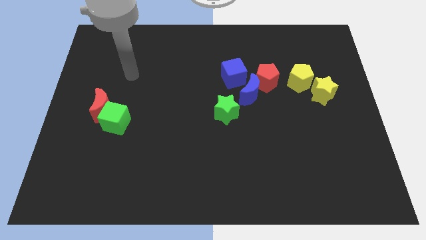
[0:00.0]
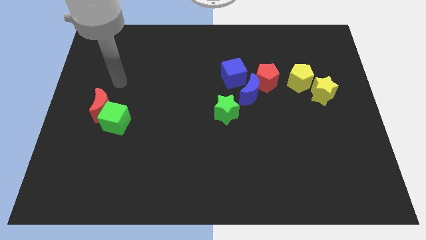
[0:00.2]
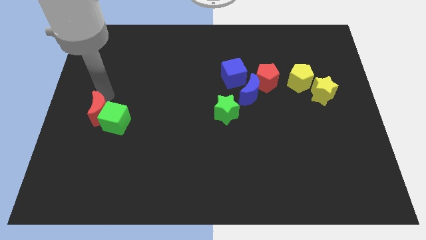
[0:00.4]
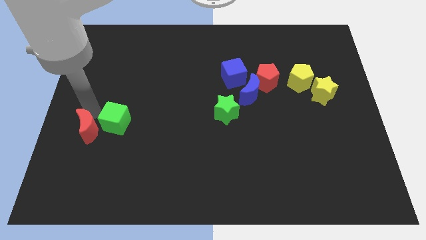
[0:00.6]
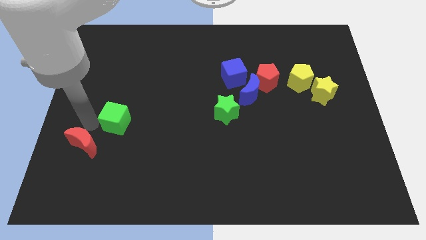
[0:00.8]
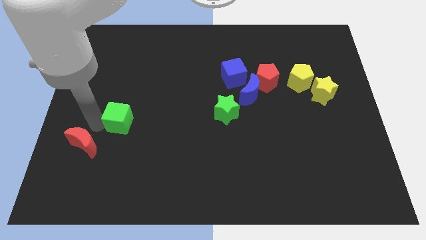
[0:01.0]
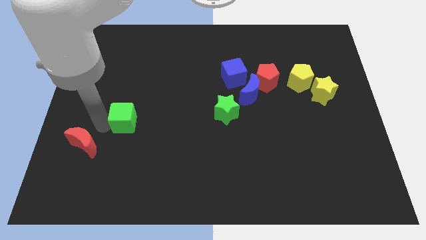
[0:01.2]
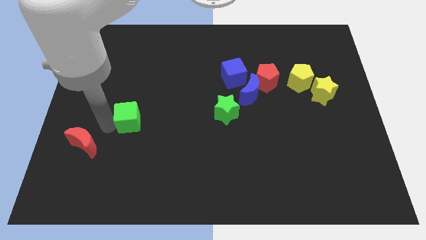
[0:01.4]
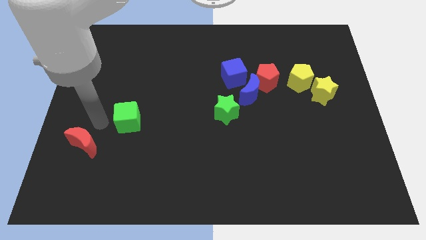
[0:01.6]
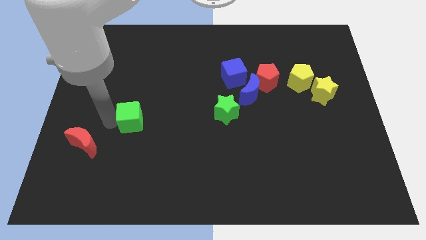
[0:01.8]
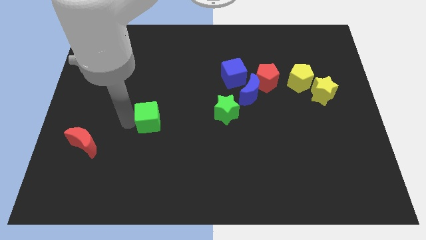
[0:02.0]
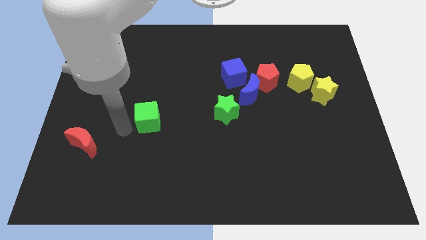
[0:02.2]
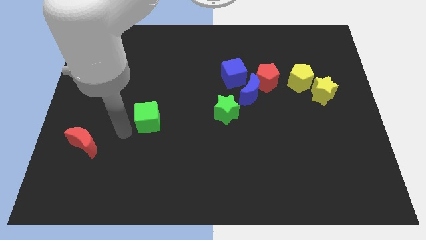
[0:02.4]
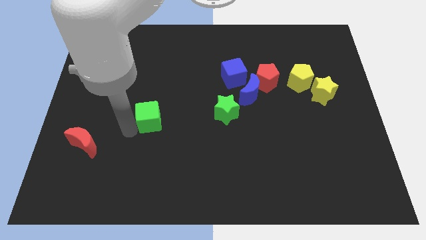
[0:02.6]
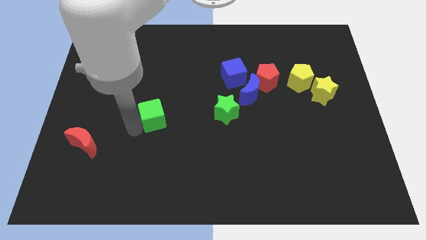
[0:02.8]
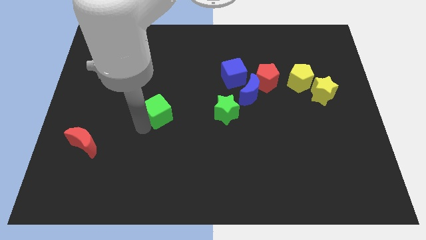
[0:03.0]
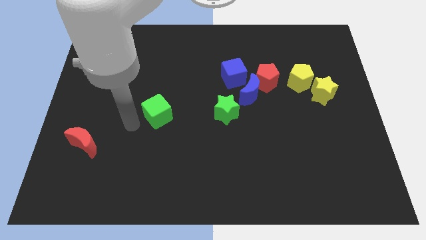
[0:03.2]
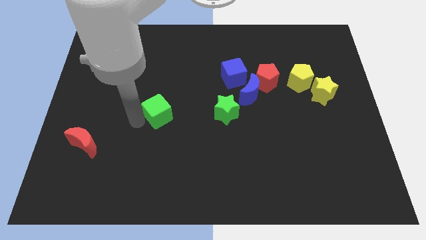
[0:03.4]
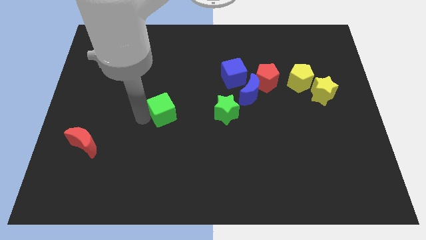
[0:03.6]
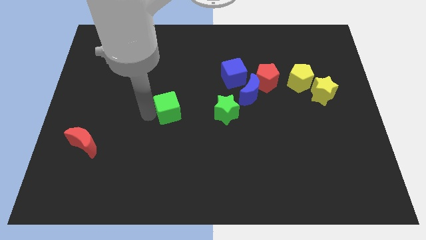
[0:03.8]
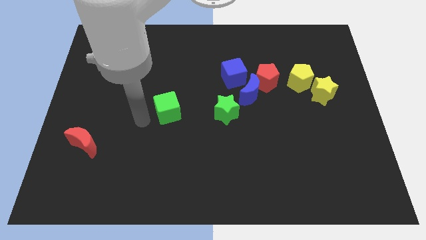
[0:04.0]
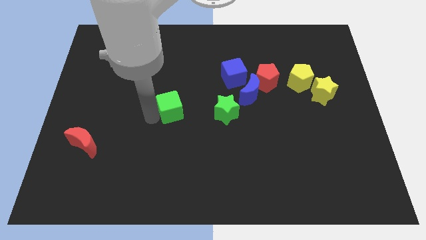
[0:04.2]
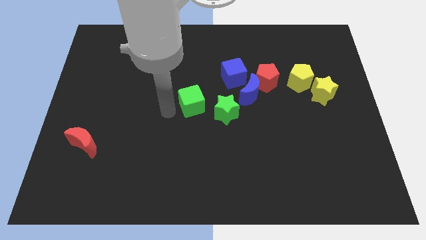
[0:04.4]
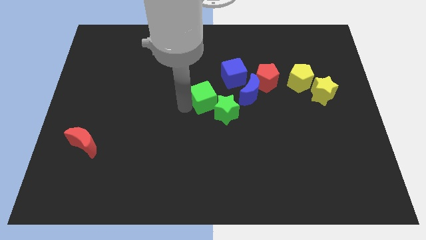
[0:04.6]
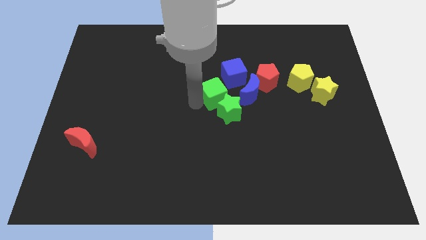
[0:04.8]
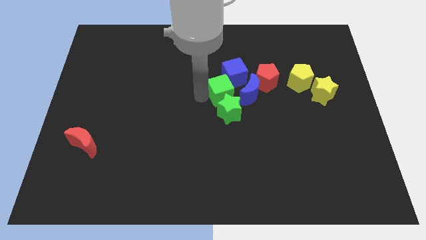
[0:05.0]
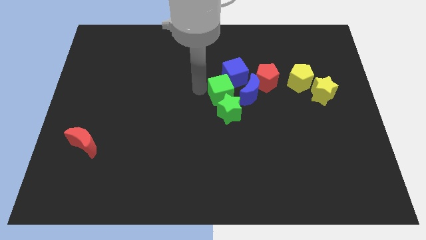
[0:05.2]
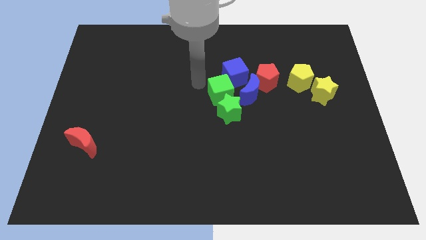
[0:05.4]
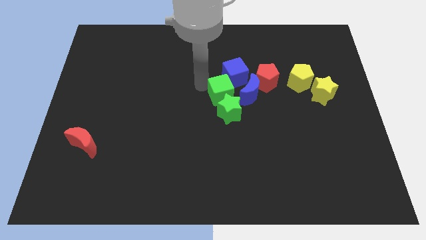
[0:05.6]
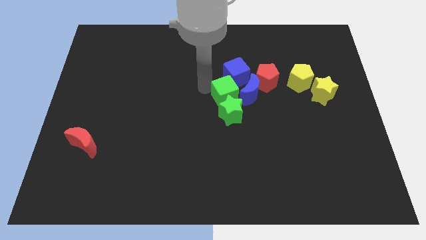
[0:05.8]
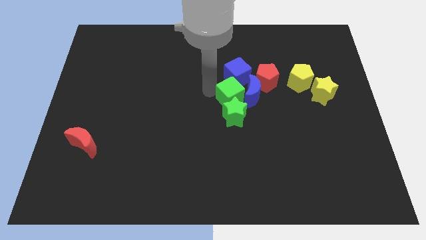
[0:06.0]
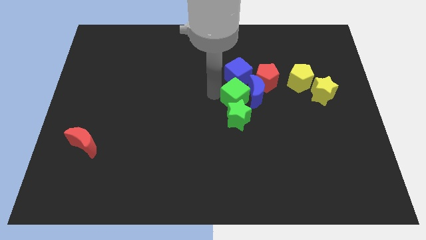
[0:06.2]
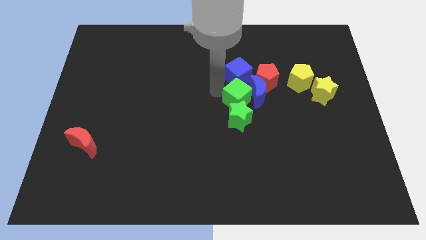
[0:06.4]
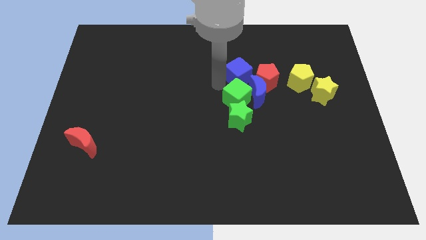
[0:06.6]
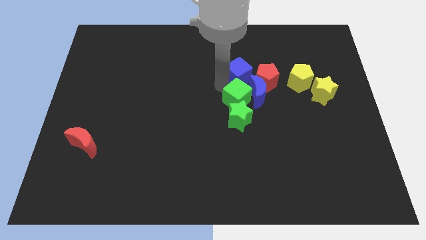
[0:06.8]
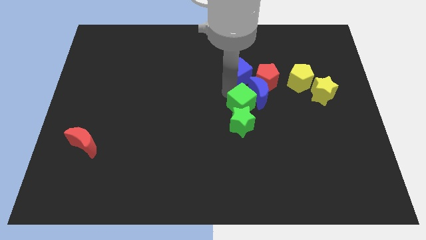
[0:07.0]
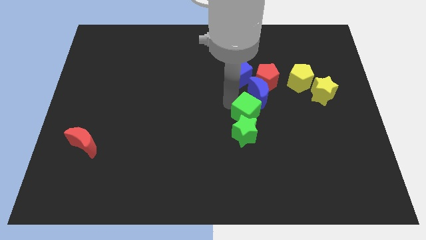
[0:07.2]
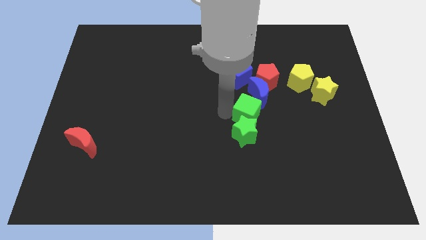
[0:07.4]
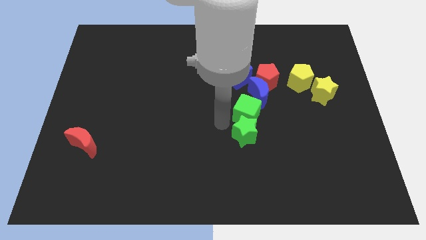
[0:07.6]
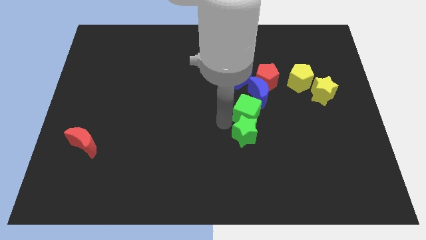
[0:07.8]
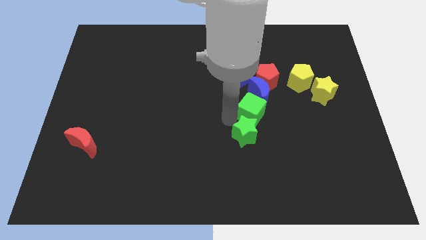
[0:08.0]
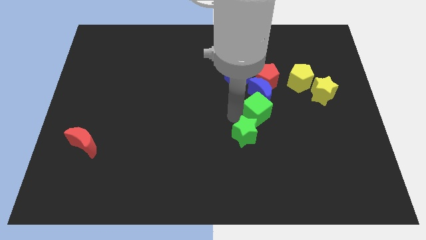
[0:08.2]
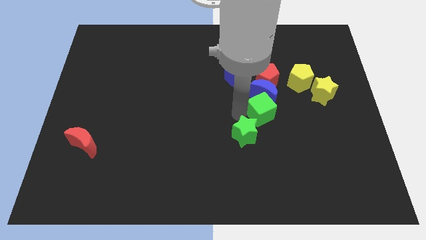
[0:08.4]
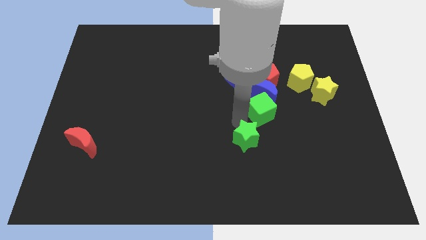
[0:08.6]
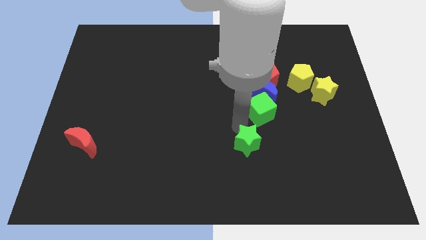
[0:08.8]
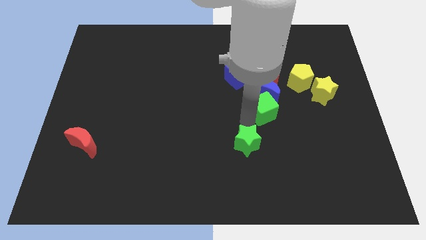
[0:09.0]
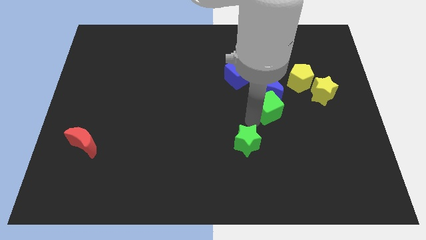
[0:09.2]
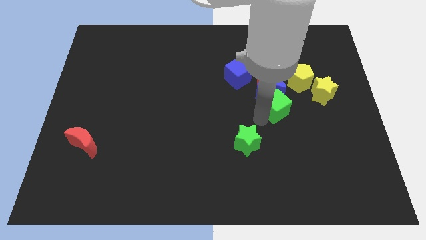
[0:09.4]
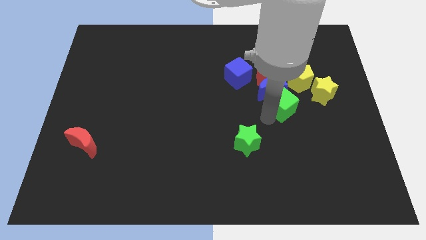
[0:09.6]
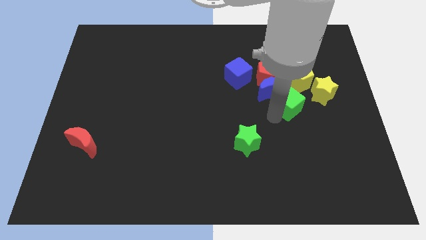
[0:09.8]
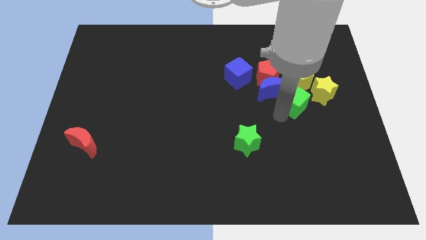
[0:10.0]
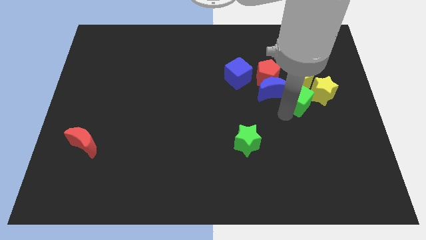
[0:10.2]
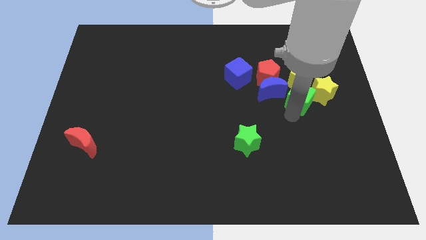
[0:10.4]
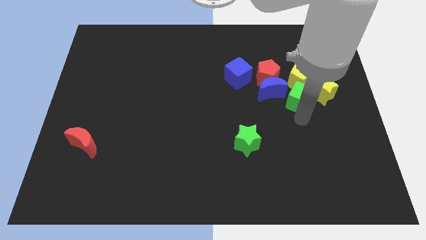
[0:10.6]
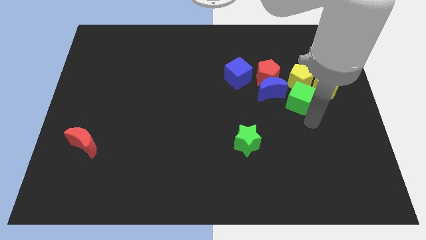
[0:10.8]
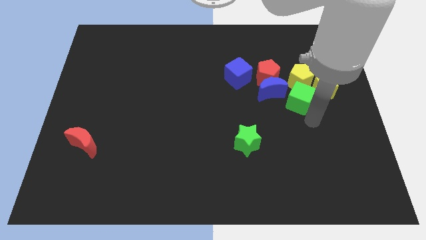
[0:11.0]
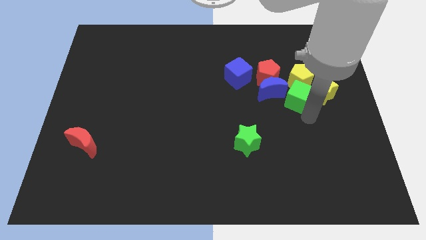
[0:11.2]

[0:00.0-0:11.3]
slide the green cube next to the yellow pentagon

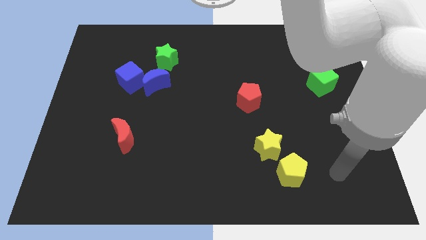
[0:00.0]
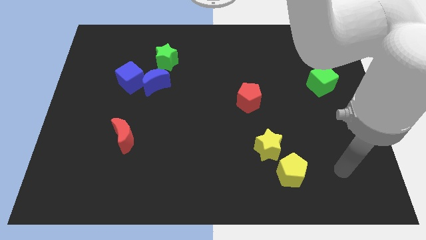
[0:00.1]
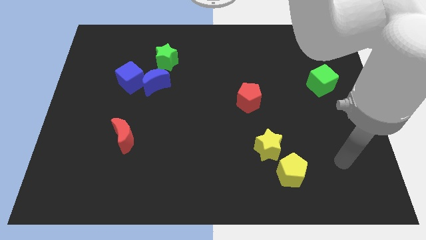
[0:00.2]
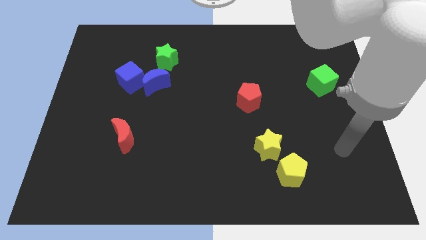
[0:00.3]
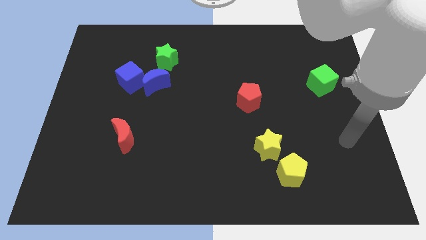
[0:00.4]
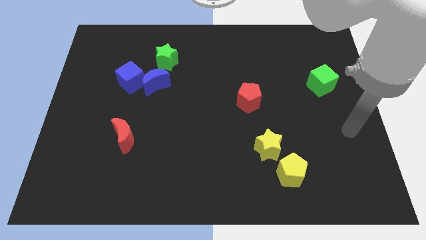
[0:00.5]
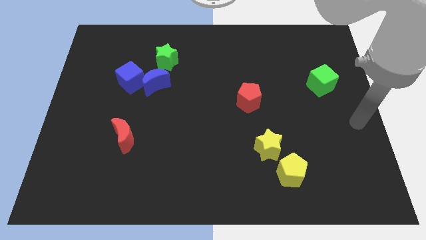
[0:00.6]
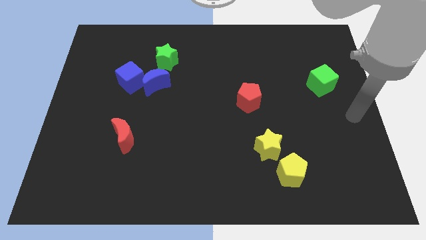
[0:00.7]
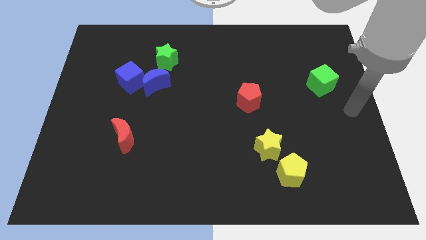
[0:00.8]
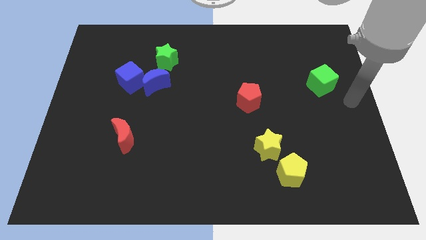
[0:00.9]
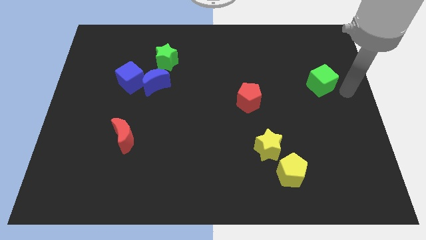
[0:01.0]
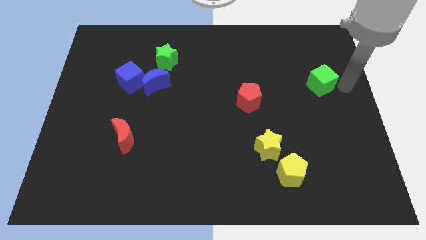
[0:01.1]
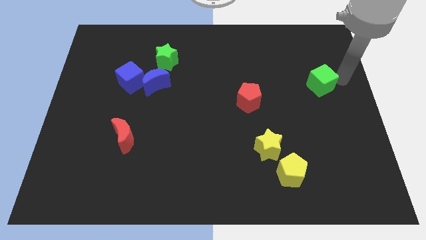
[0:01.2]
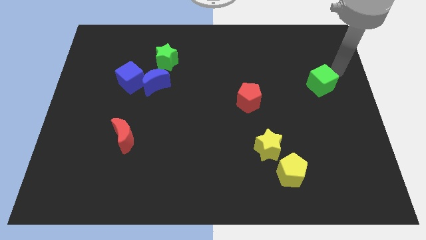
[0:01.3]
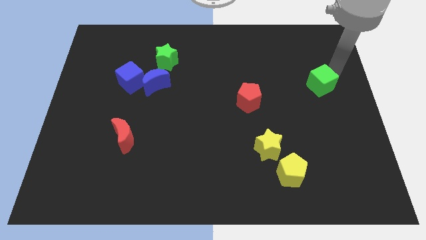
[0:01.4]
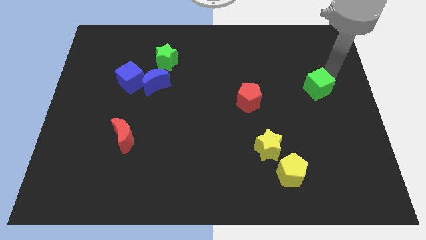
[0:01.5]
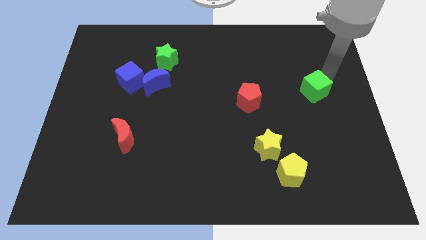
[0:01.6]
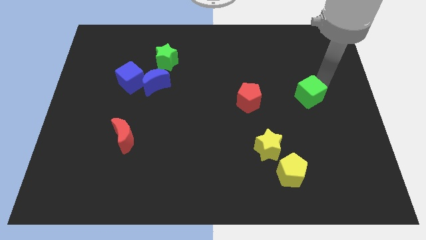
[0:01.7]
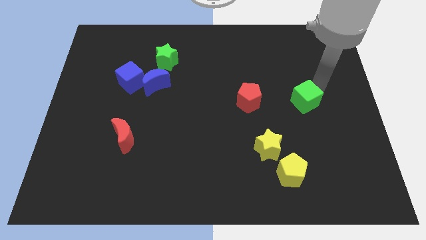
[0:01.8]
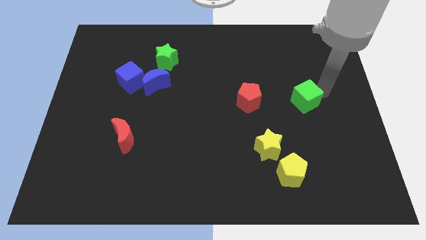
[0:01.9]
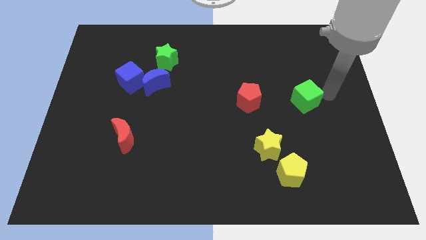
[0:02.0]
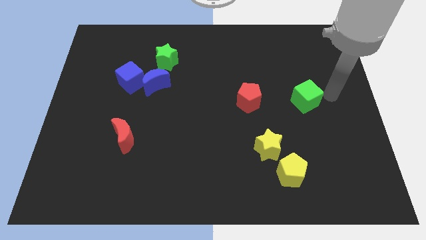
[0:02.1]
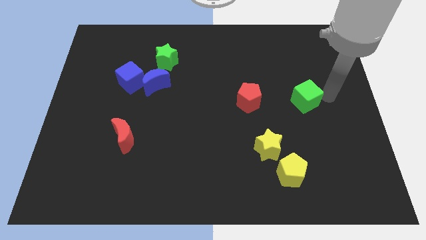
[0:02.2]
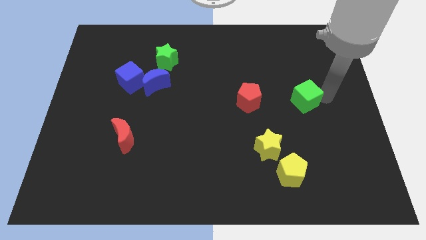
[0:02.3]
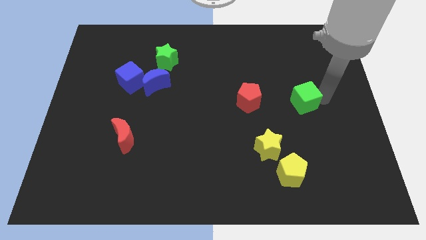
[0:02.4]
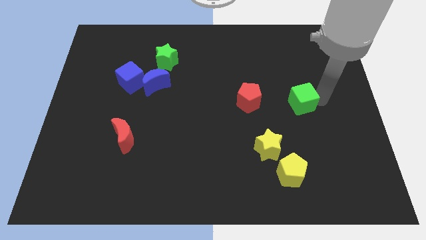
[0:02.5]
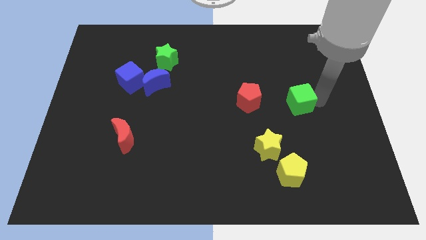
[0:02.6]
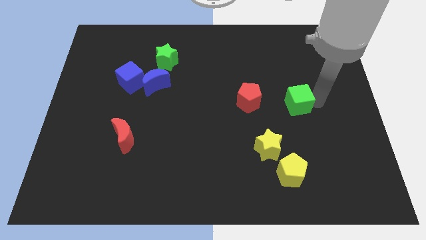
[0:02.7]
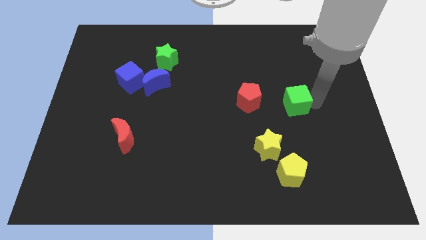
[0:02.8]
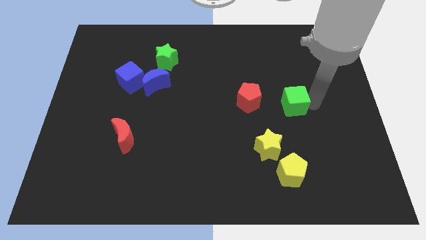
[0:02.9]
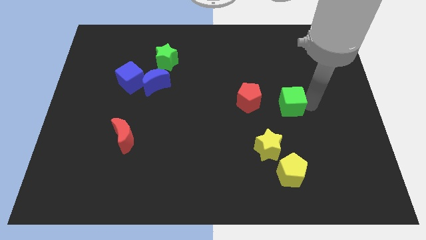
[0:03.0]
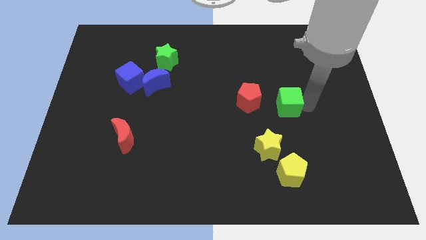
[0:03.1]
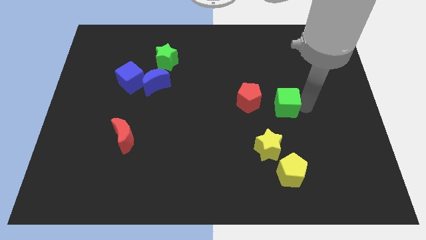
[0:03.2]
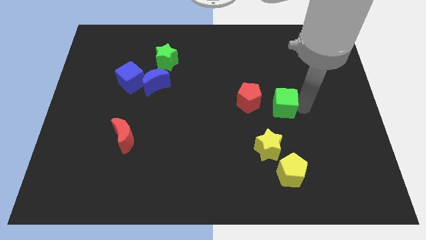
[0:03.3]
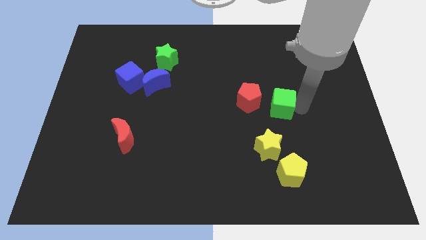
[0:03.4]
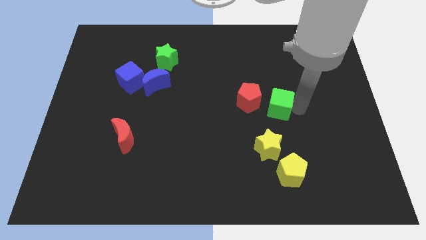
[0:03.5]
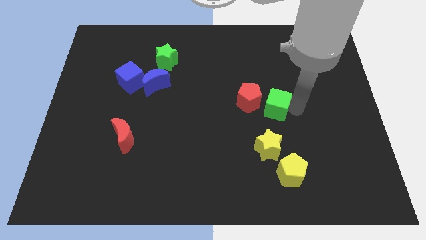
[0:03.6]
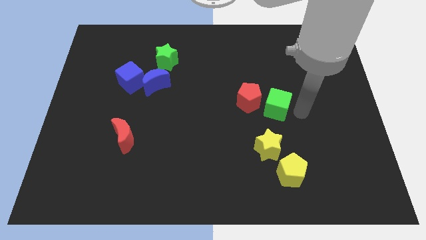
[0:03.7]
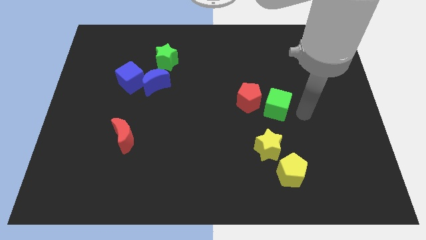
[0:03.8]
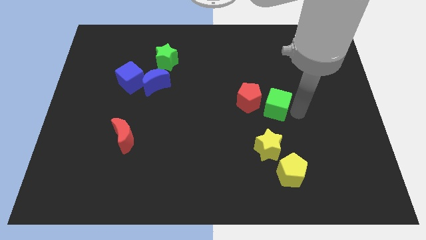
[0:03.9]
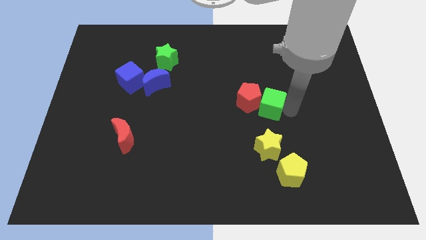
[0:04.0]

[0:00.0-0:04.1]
move the green cube to the red pentagon
